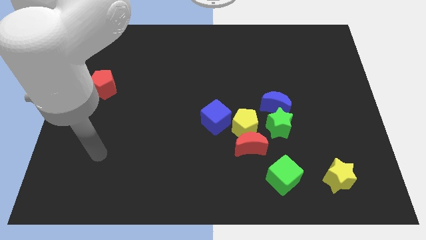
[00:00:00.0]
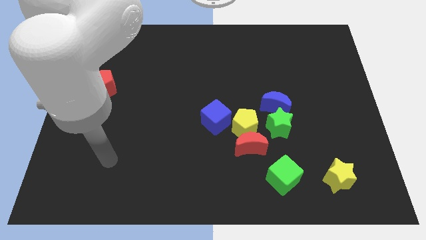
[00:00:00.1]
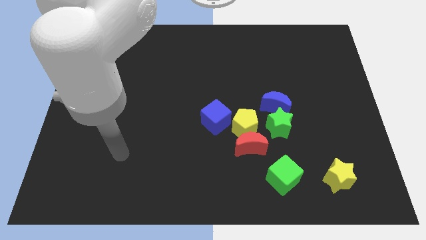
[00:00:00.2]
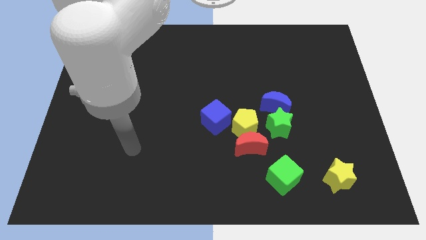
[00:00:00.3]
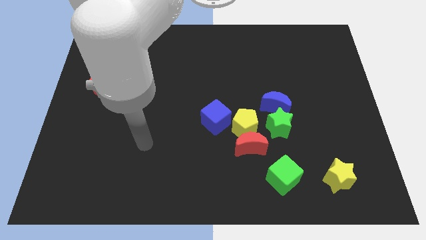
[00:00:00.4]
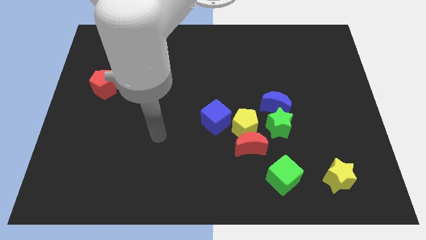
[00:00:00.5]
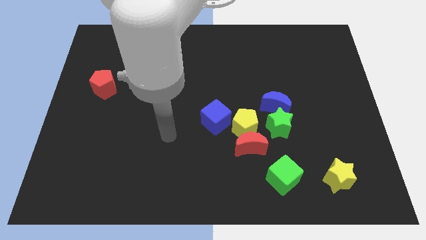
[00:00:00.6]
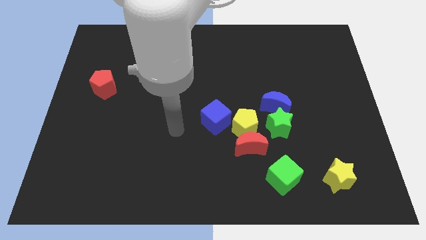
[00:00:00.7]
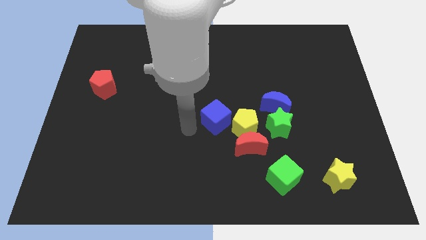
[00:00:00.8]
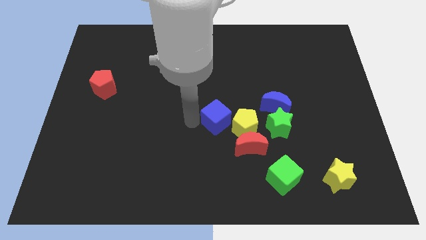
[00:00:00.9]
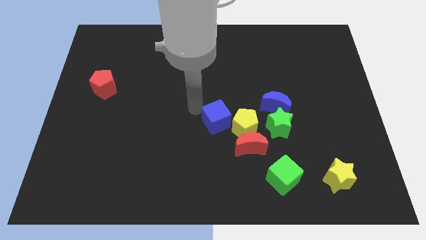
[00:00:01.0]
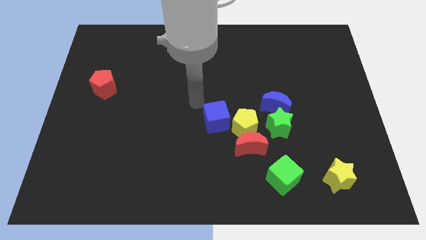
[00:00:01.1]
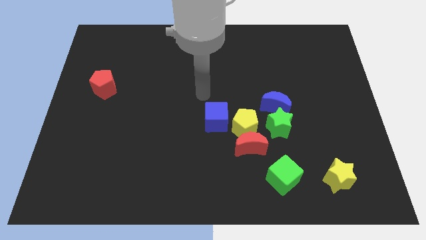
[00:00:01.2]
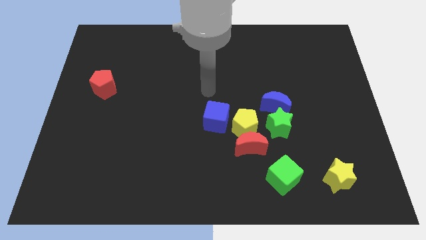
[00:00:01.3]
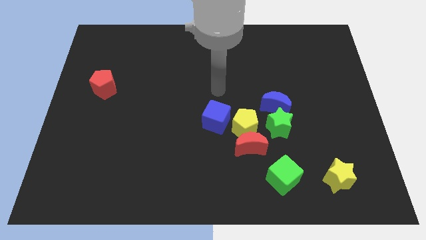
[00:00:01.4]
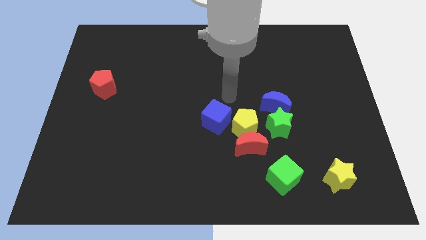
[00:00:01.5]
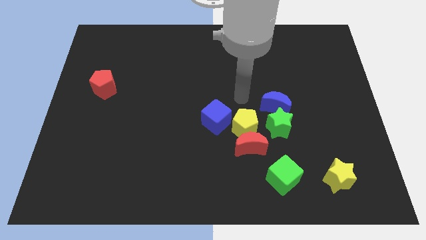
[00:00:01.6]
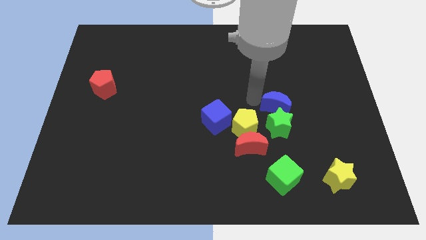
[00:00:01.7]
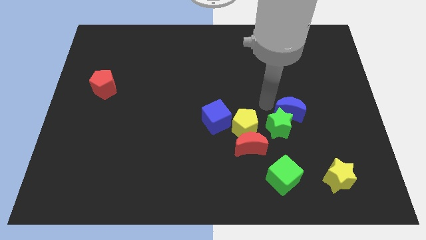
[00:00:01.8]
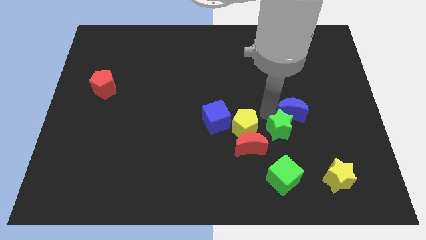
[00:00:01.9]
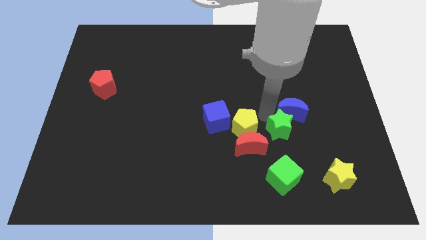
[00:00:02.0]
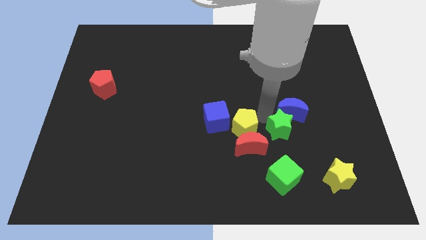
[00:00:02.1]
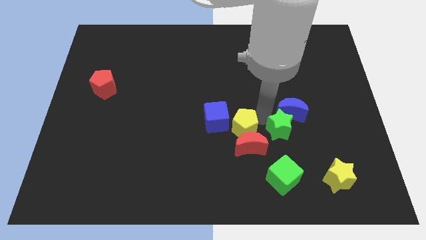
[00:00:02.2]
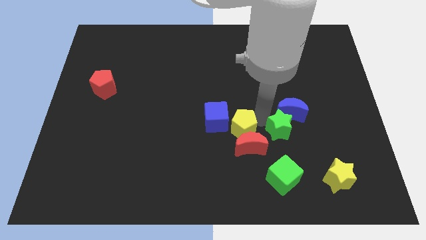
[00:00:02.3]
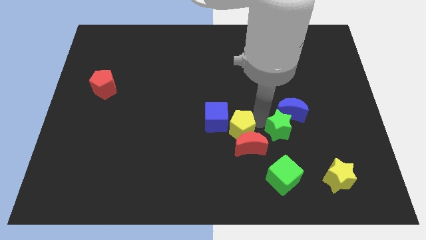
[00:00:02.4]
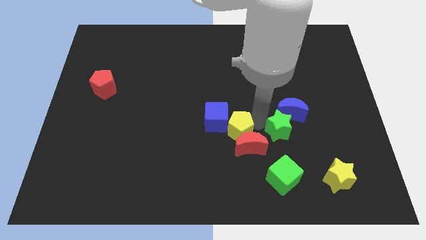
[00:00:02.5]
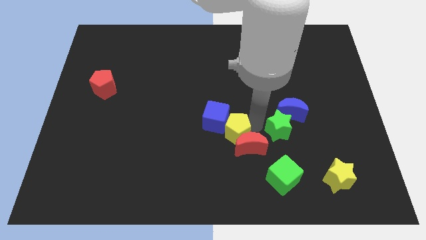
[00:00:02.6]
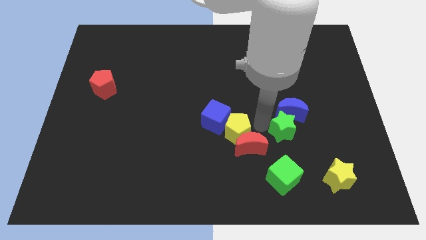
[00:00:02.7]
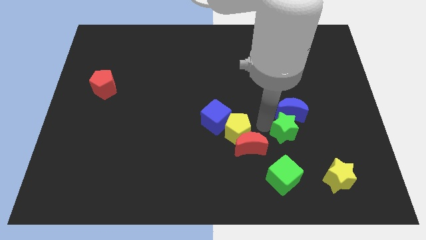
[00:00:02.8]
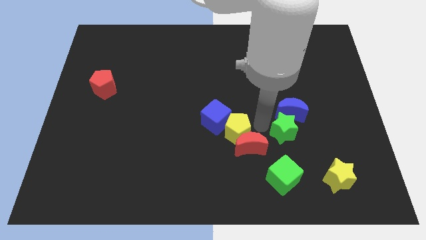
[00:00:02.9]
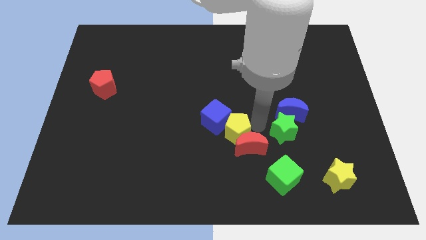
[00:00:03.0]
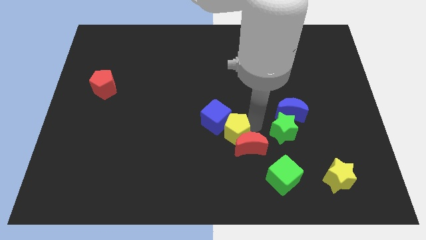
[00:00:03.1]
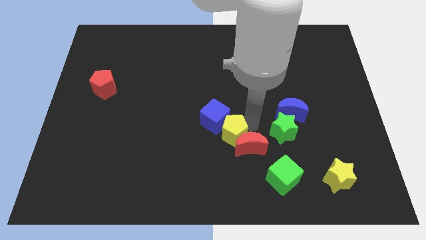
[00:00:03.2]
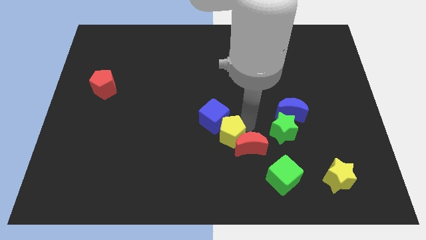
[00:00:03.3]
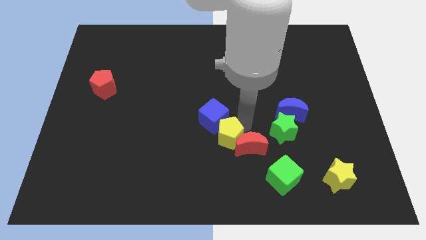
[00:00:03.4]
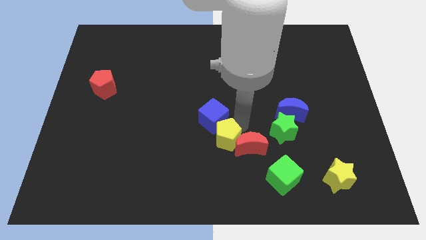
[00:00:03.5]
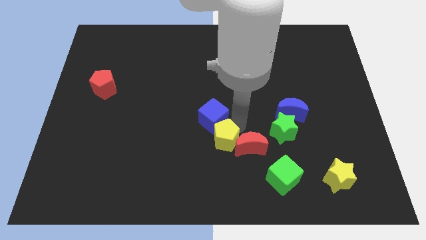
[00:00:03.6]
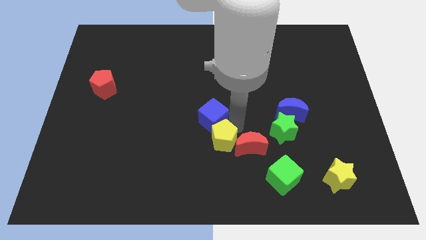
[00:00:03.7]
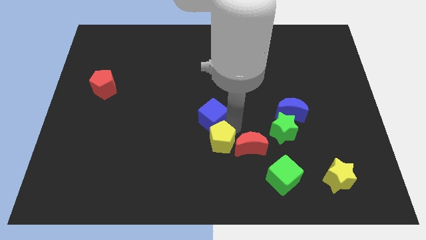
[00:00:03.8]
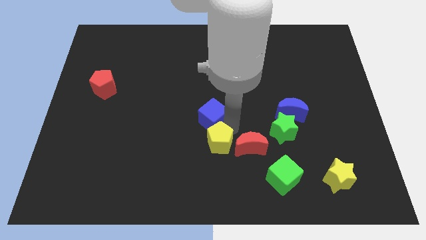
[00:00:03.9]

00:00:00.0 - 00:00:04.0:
separate the yellow pentagon from the group of blocks

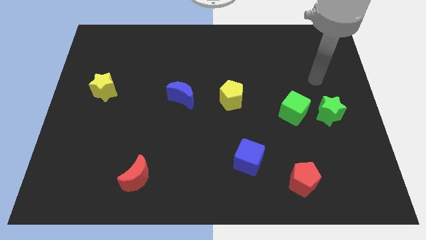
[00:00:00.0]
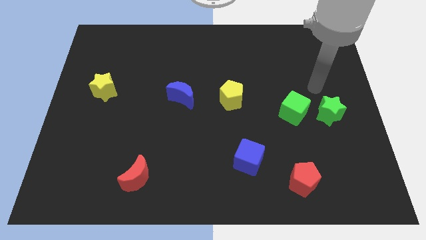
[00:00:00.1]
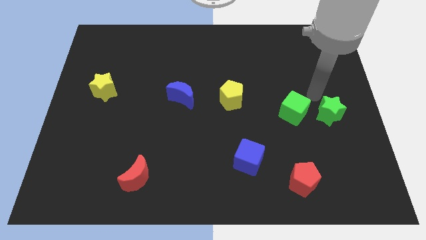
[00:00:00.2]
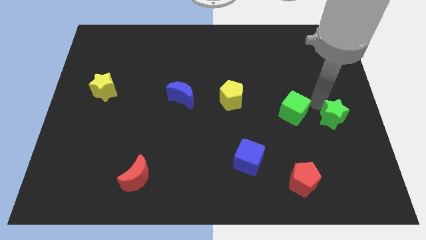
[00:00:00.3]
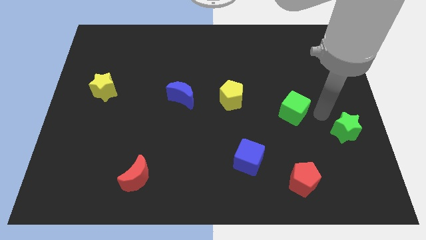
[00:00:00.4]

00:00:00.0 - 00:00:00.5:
move the green cube away from the green star

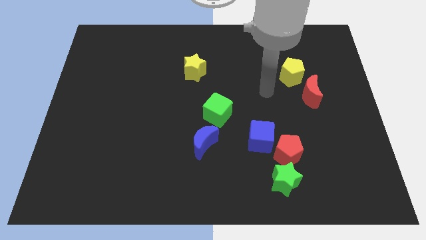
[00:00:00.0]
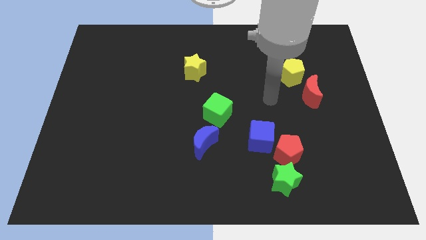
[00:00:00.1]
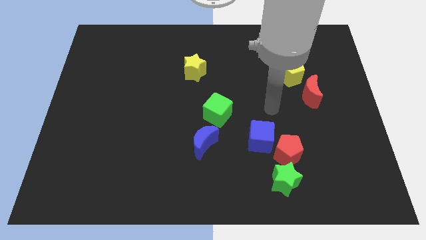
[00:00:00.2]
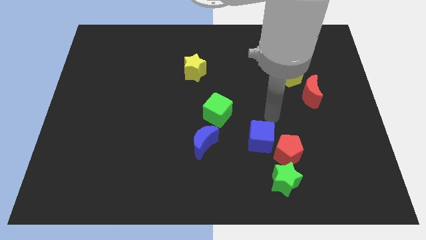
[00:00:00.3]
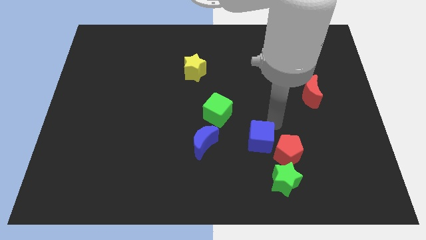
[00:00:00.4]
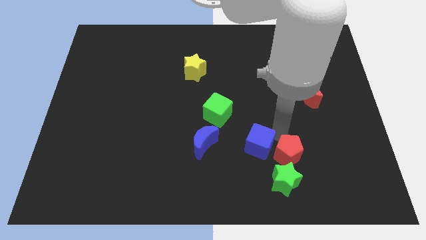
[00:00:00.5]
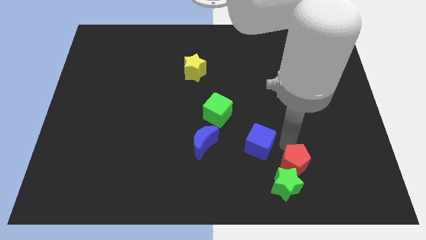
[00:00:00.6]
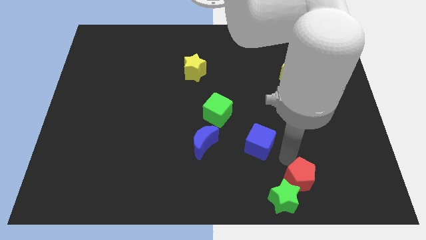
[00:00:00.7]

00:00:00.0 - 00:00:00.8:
move the blue cube away from the red pentagon

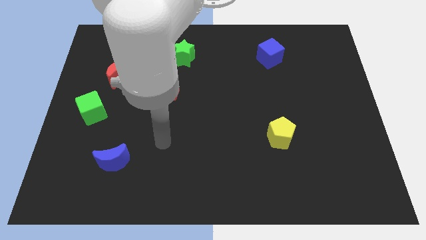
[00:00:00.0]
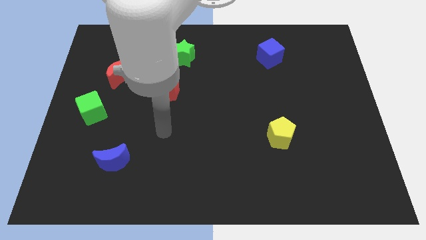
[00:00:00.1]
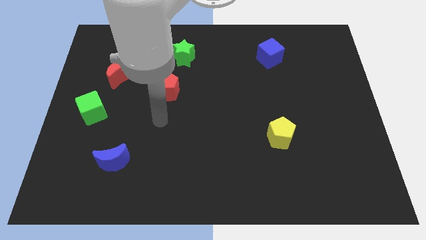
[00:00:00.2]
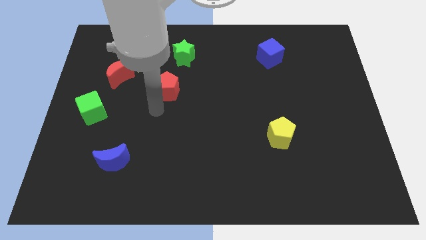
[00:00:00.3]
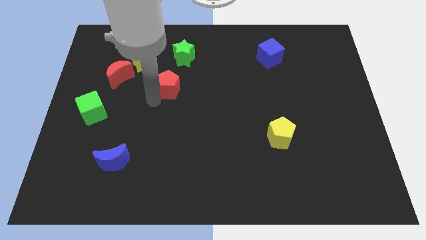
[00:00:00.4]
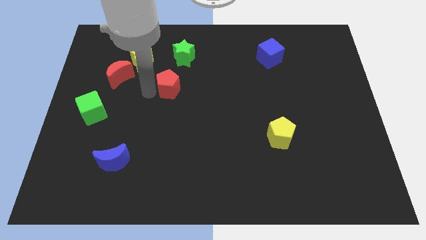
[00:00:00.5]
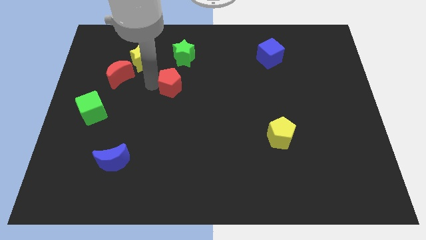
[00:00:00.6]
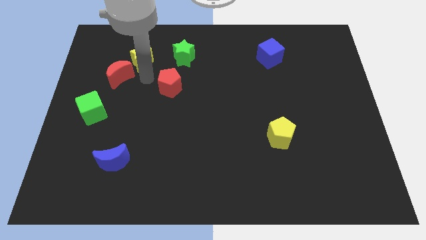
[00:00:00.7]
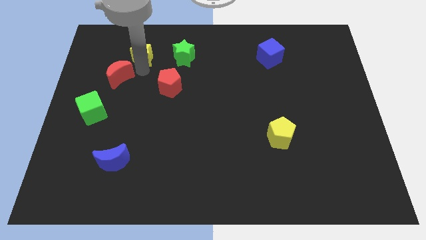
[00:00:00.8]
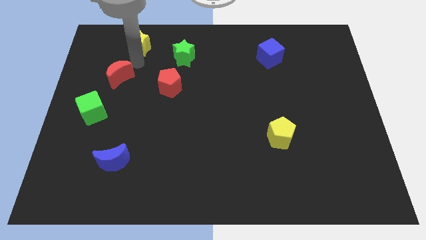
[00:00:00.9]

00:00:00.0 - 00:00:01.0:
separate the red moon from the yellow star

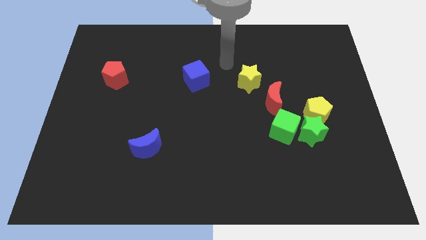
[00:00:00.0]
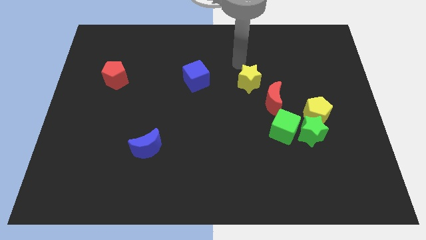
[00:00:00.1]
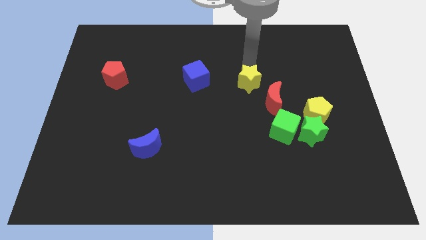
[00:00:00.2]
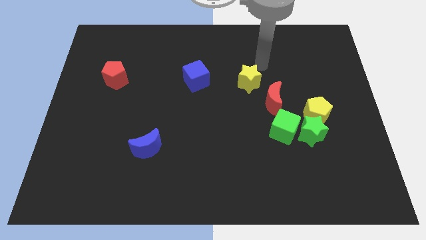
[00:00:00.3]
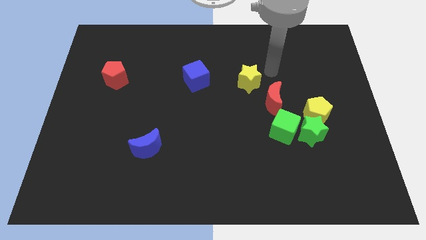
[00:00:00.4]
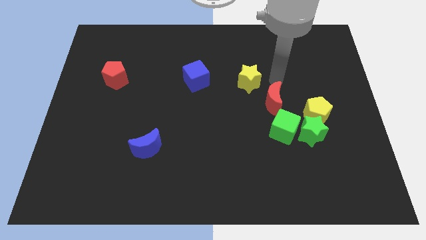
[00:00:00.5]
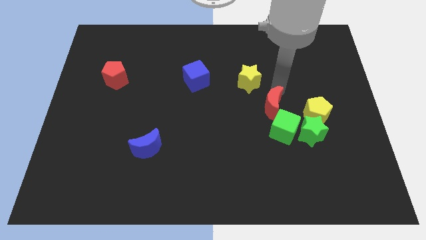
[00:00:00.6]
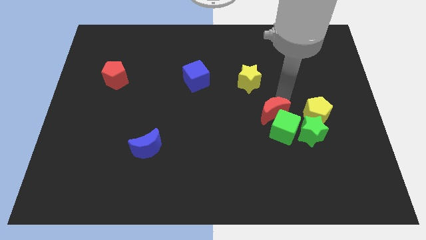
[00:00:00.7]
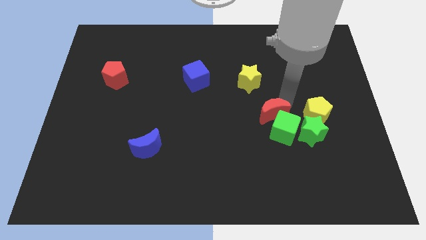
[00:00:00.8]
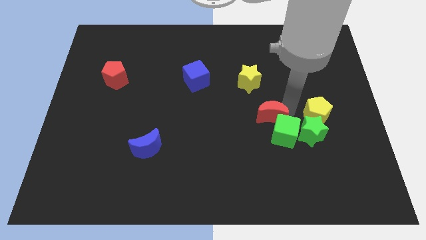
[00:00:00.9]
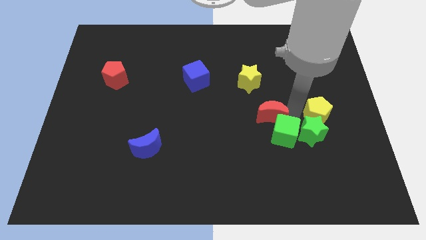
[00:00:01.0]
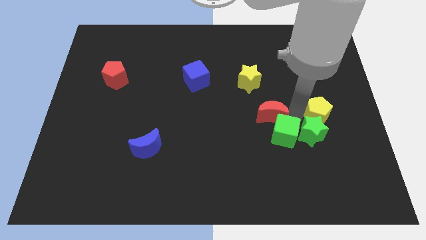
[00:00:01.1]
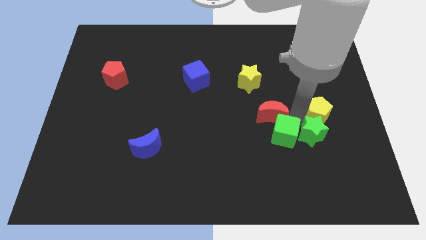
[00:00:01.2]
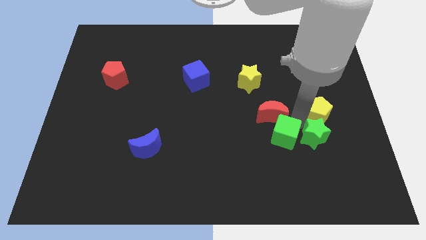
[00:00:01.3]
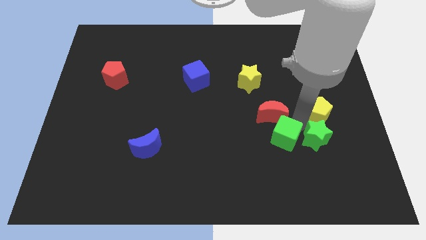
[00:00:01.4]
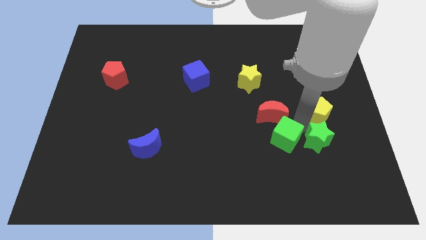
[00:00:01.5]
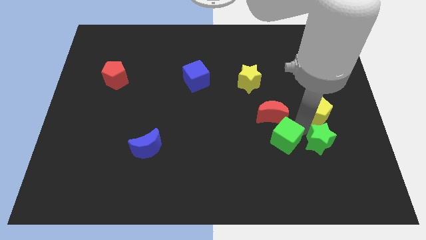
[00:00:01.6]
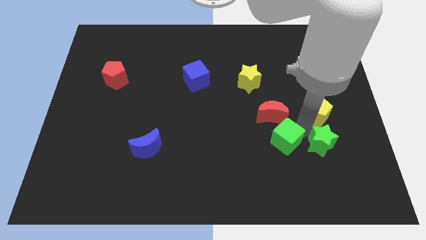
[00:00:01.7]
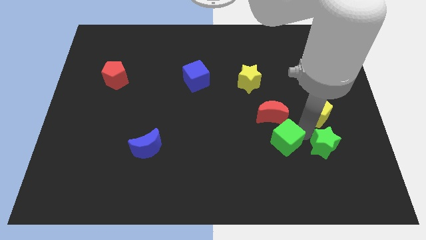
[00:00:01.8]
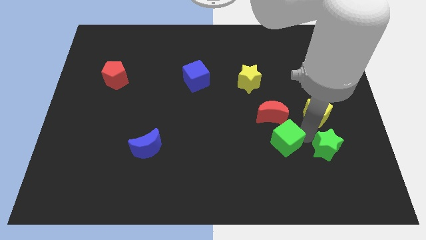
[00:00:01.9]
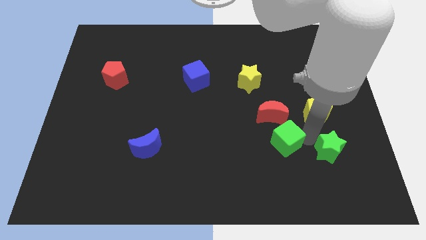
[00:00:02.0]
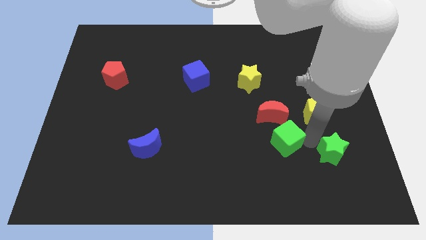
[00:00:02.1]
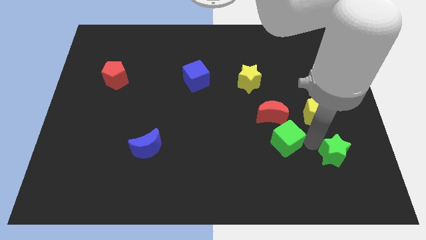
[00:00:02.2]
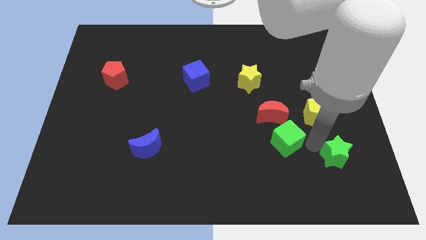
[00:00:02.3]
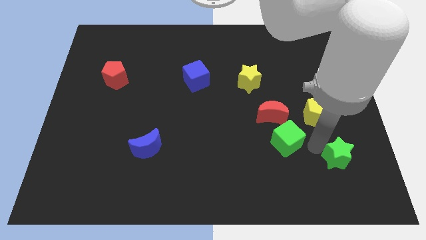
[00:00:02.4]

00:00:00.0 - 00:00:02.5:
pull the green star apart from the yellow pentagon and green cube

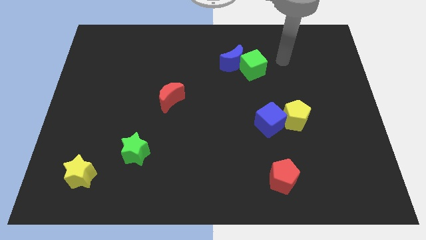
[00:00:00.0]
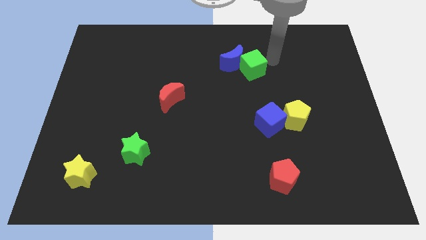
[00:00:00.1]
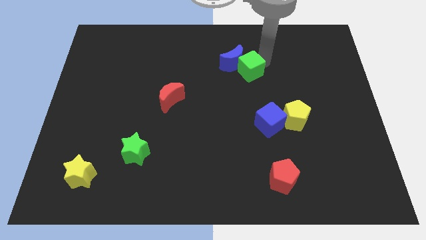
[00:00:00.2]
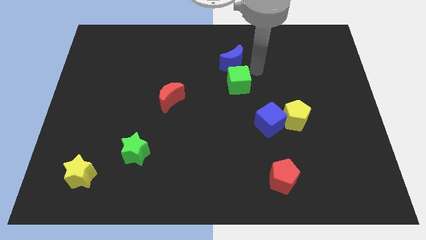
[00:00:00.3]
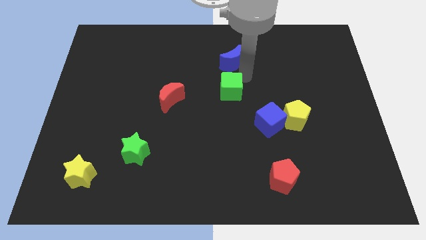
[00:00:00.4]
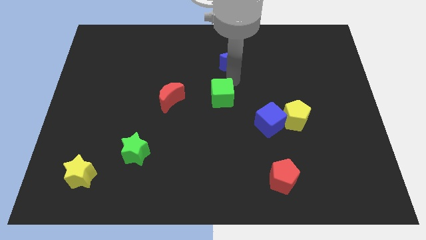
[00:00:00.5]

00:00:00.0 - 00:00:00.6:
move the blue moon away from the green cube

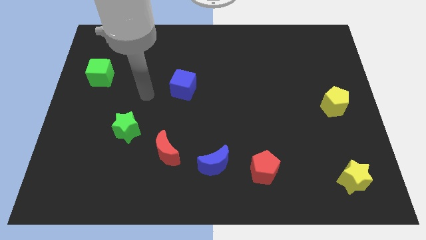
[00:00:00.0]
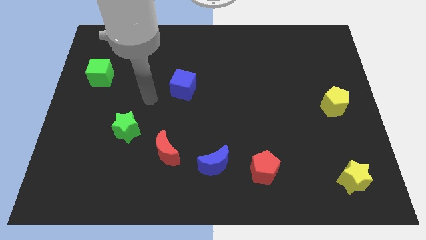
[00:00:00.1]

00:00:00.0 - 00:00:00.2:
move the red pentagon away from the blue moon
